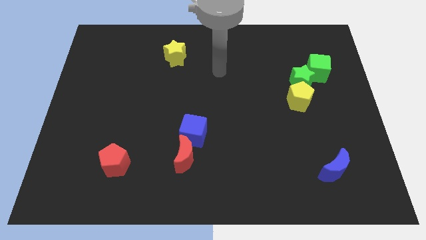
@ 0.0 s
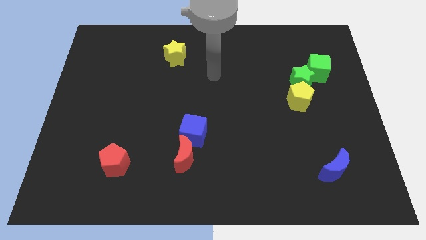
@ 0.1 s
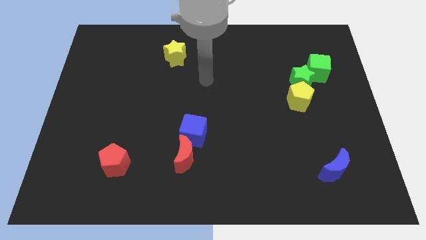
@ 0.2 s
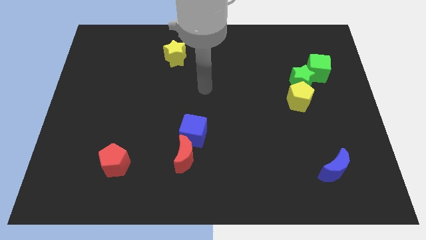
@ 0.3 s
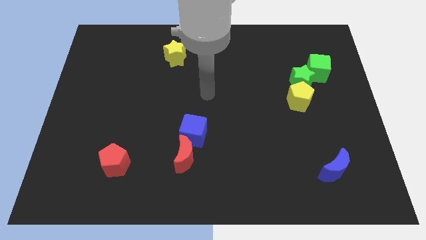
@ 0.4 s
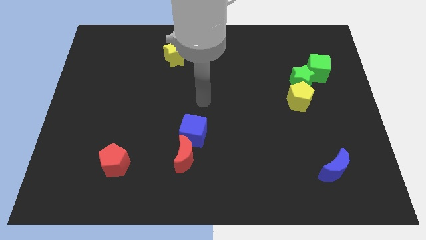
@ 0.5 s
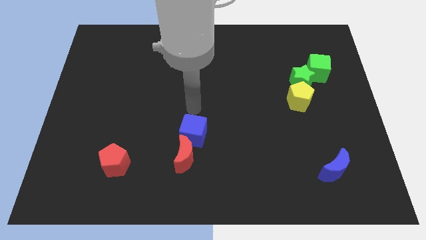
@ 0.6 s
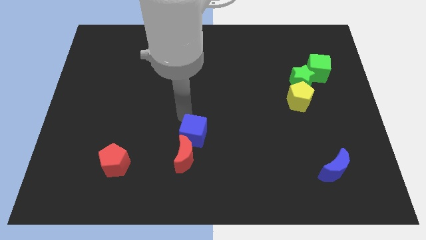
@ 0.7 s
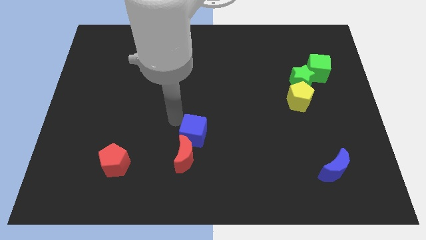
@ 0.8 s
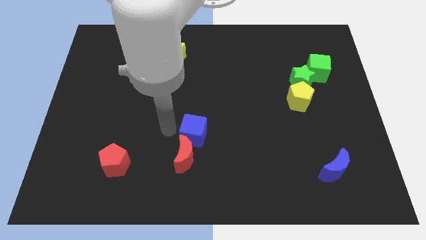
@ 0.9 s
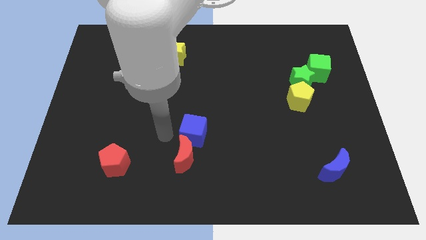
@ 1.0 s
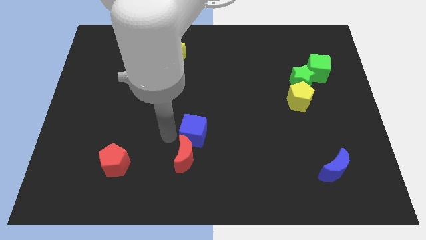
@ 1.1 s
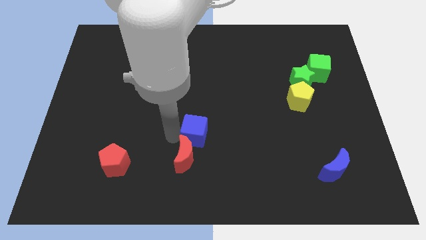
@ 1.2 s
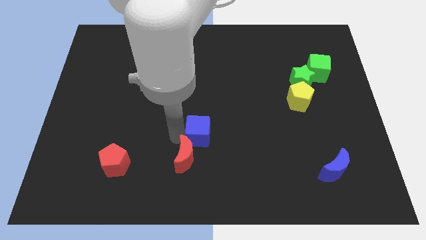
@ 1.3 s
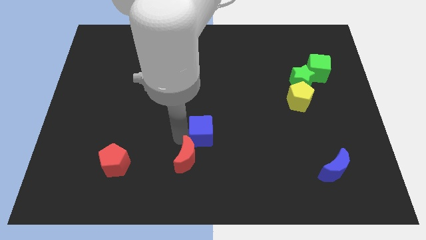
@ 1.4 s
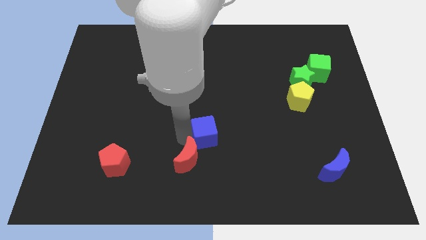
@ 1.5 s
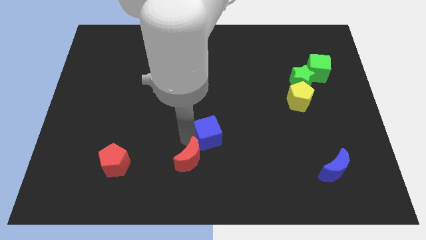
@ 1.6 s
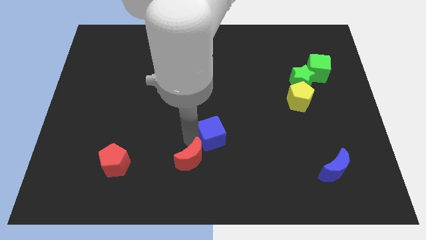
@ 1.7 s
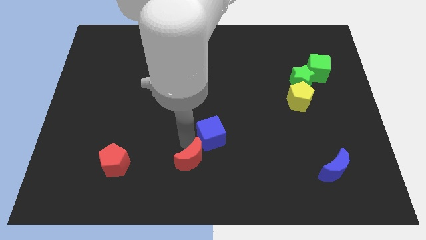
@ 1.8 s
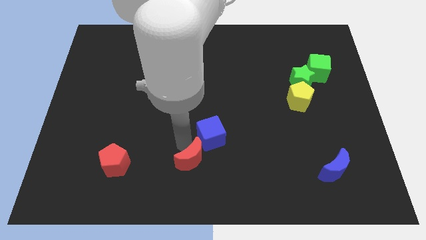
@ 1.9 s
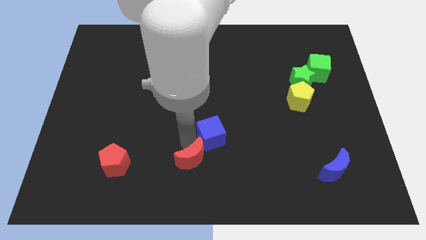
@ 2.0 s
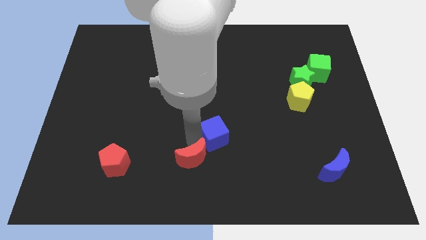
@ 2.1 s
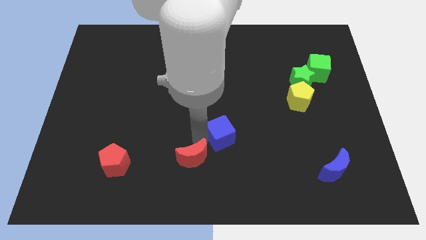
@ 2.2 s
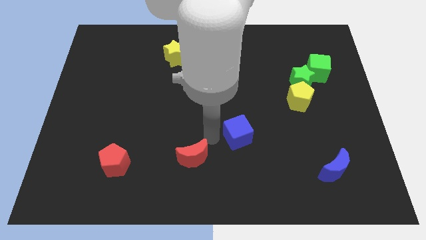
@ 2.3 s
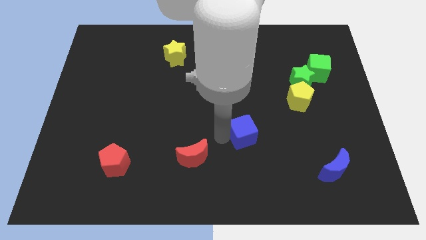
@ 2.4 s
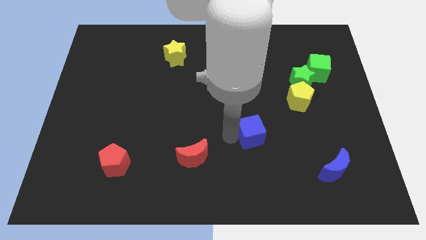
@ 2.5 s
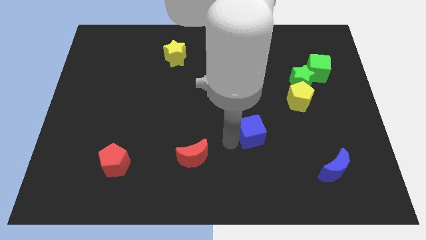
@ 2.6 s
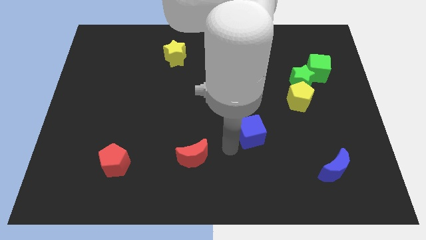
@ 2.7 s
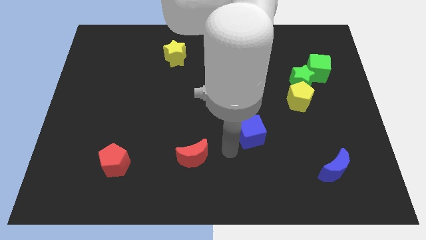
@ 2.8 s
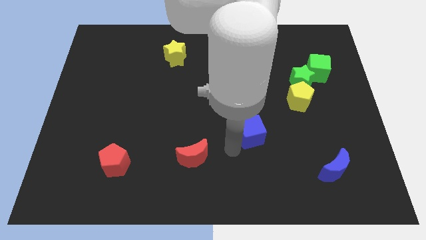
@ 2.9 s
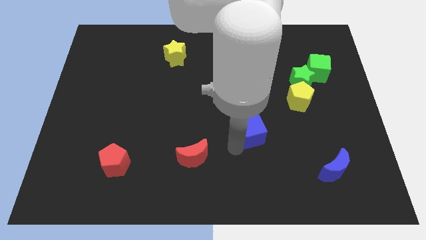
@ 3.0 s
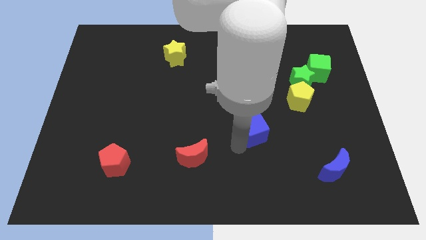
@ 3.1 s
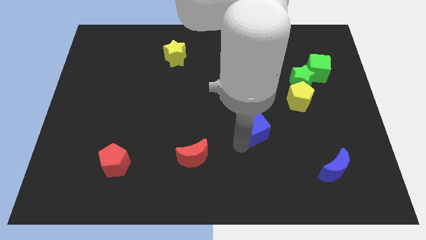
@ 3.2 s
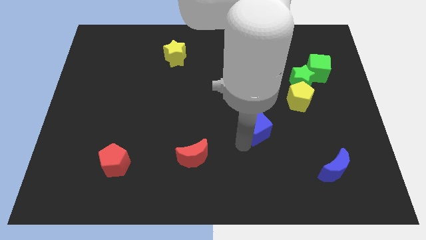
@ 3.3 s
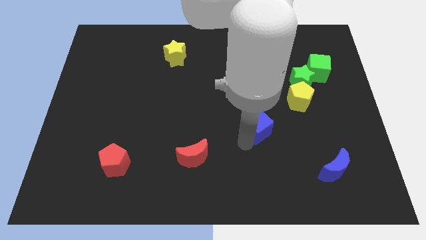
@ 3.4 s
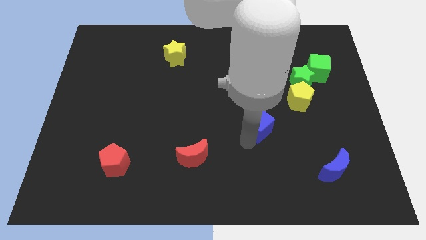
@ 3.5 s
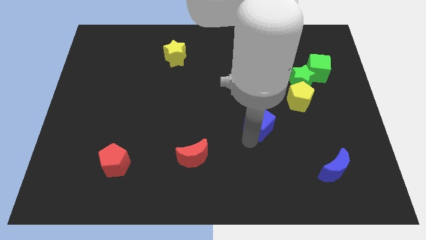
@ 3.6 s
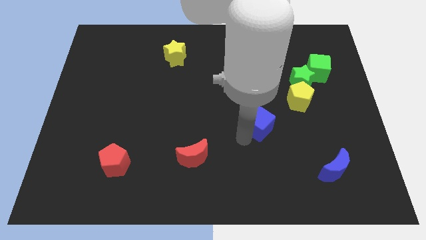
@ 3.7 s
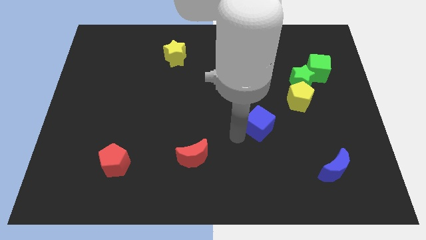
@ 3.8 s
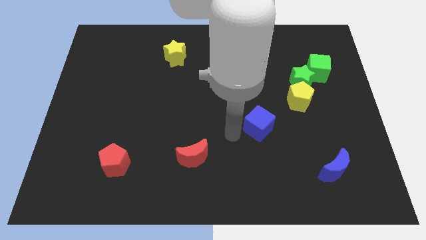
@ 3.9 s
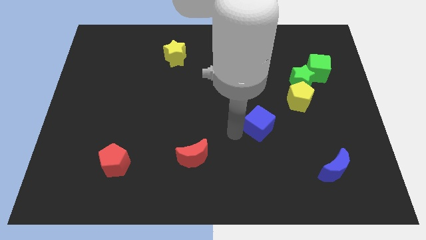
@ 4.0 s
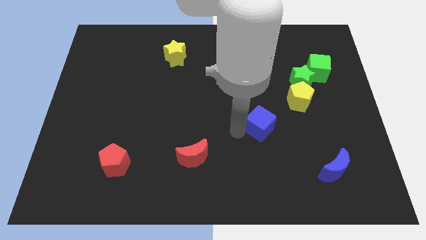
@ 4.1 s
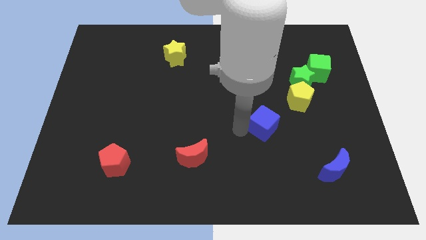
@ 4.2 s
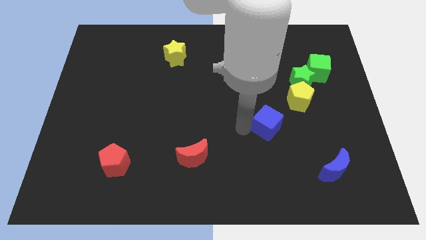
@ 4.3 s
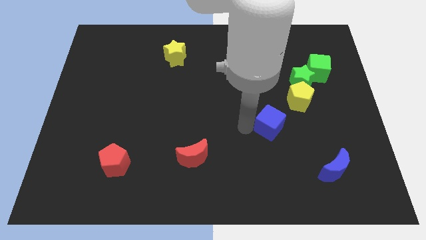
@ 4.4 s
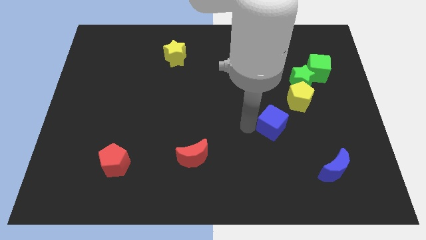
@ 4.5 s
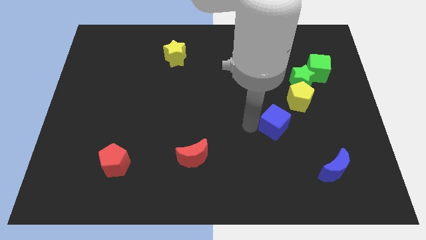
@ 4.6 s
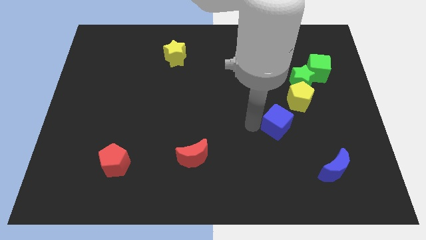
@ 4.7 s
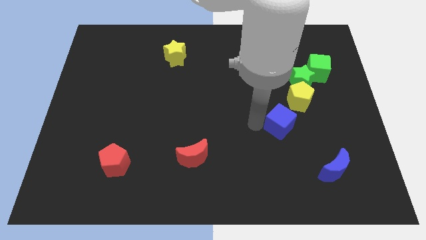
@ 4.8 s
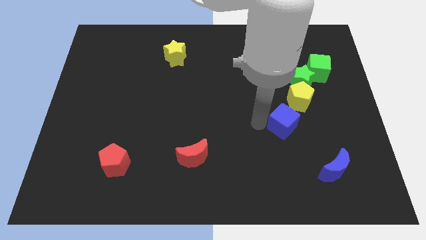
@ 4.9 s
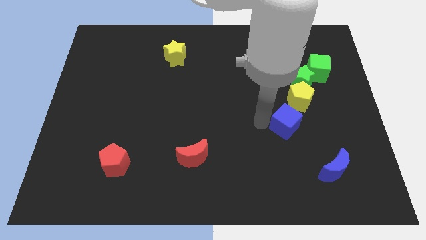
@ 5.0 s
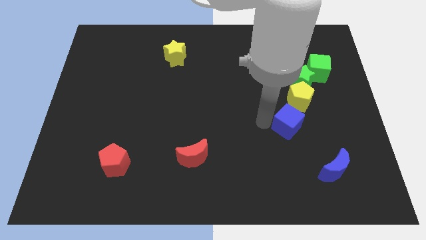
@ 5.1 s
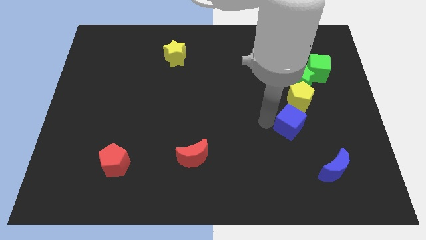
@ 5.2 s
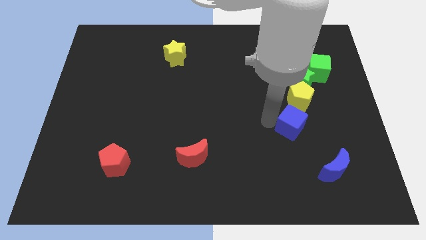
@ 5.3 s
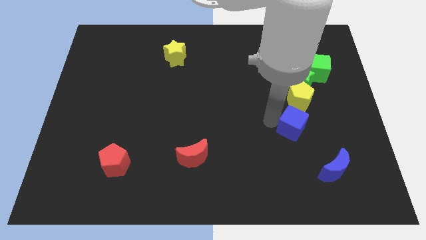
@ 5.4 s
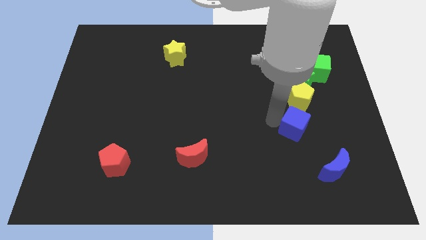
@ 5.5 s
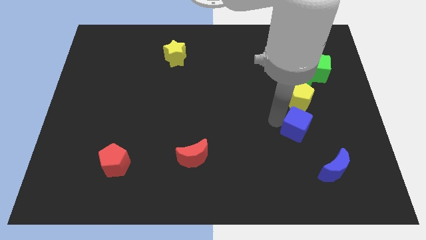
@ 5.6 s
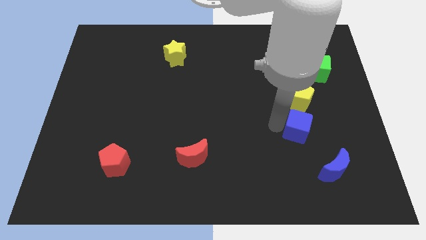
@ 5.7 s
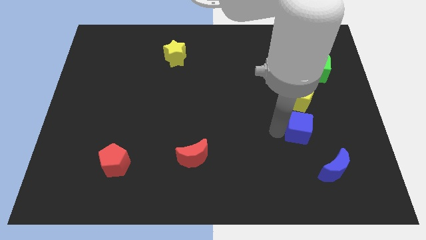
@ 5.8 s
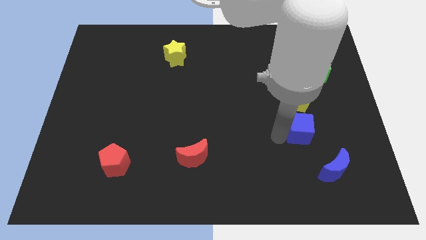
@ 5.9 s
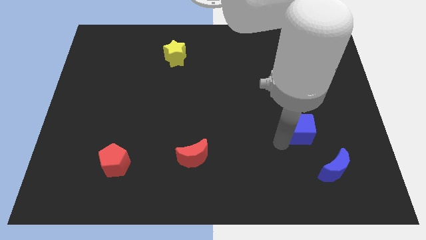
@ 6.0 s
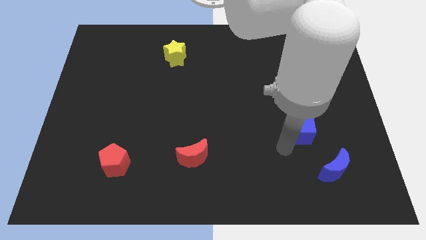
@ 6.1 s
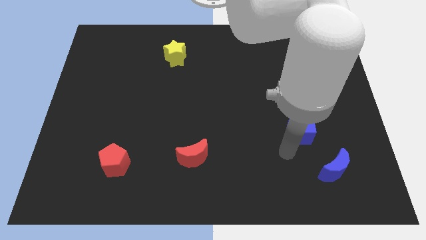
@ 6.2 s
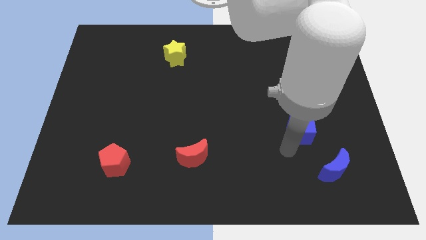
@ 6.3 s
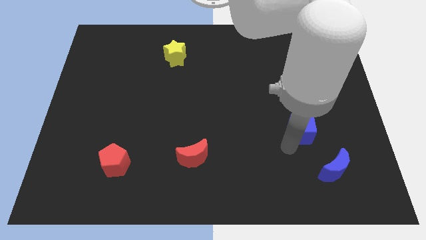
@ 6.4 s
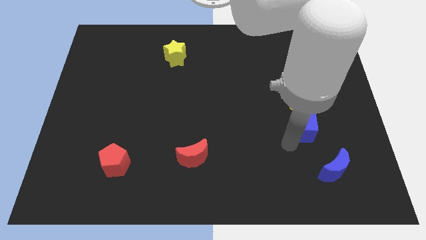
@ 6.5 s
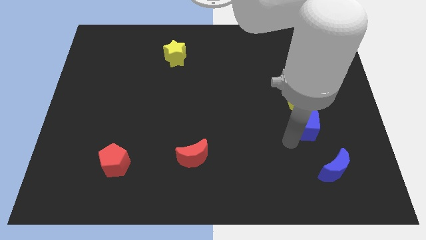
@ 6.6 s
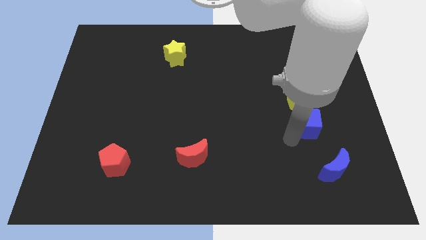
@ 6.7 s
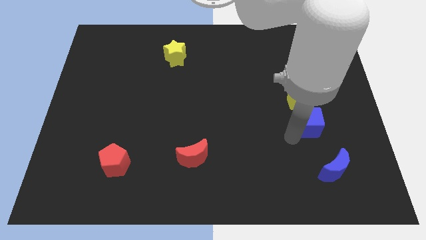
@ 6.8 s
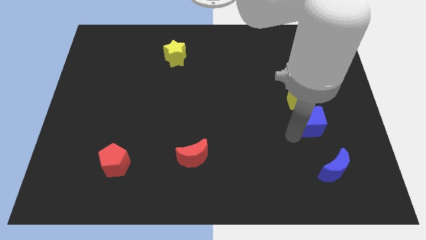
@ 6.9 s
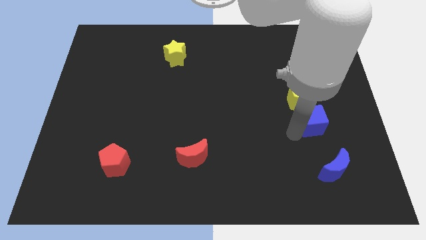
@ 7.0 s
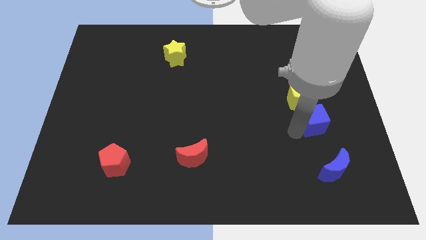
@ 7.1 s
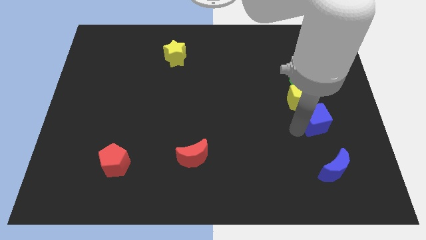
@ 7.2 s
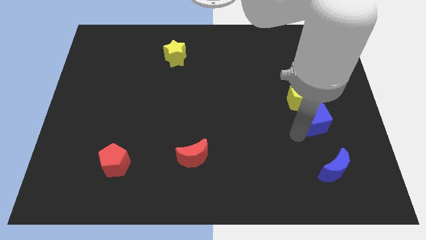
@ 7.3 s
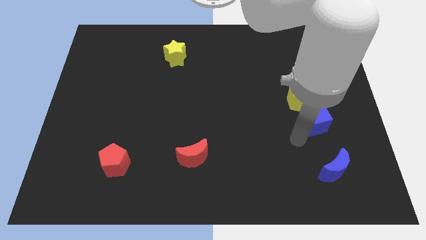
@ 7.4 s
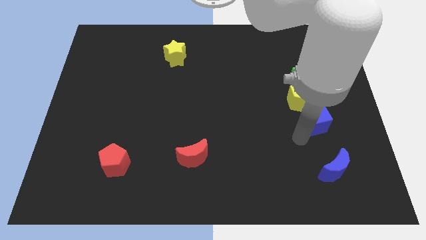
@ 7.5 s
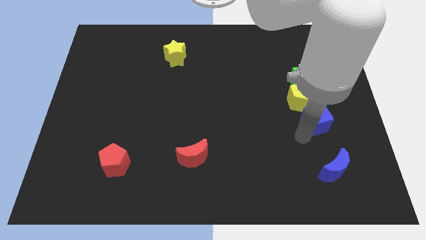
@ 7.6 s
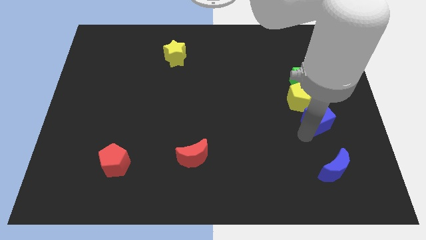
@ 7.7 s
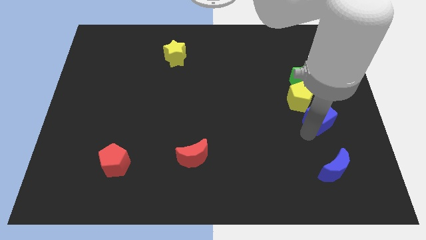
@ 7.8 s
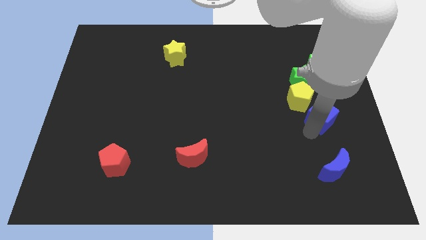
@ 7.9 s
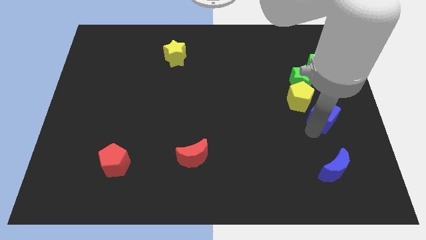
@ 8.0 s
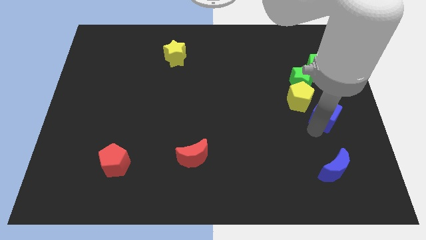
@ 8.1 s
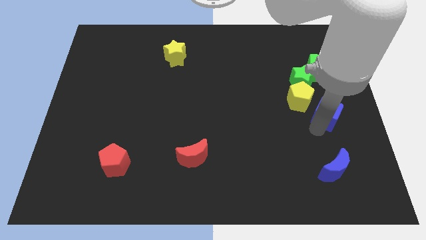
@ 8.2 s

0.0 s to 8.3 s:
push the blue cube to the right side
